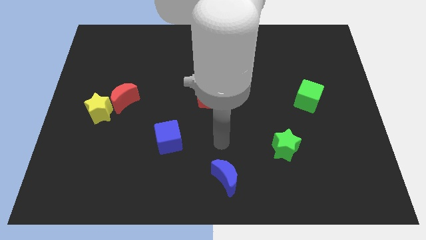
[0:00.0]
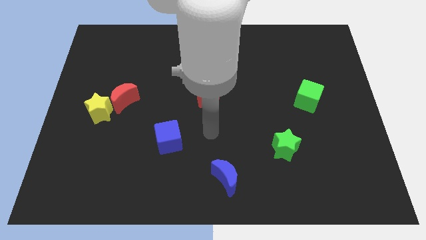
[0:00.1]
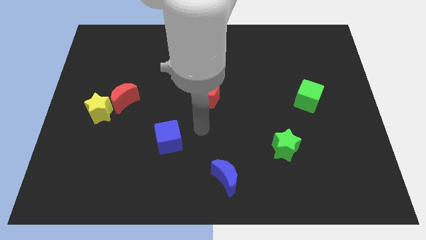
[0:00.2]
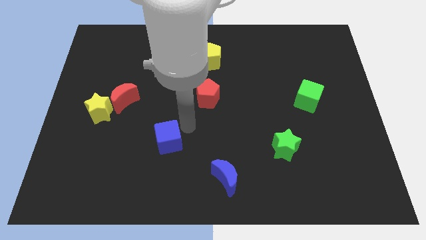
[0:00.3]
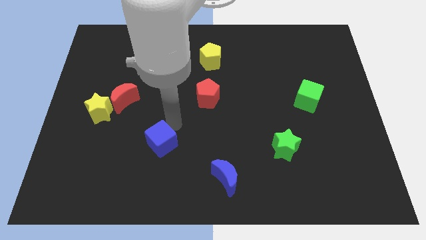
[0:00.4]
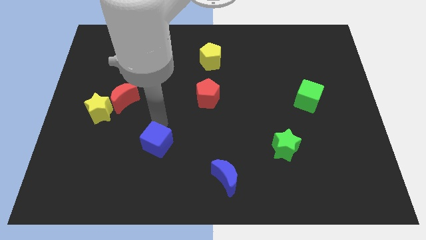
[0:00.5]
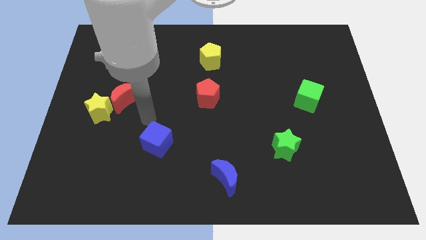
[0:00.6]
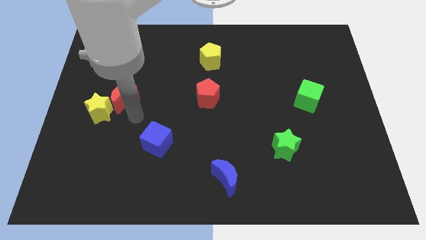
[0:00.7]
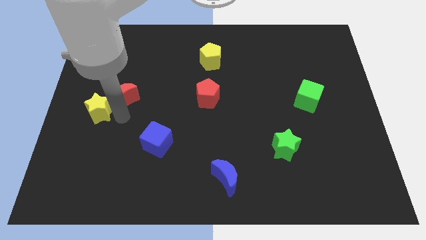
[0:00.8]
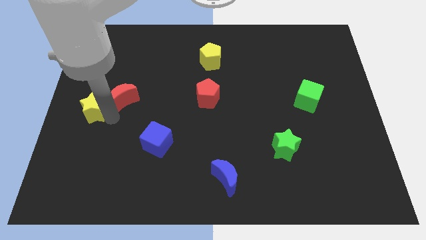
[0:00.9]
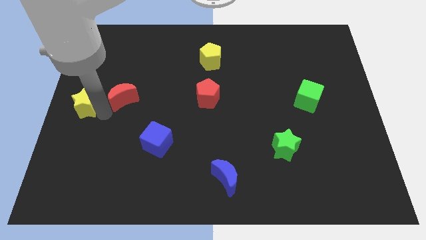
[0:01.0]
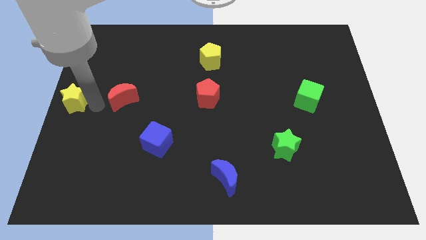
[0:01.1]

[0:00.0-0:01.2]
separate the red moon from the yellow star

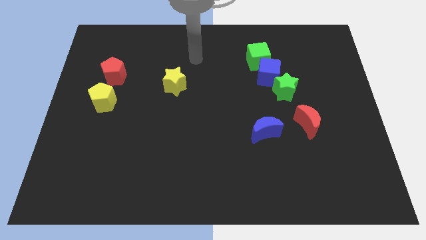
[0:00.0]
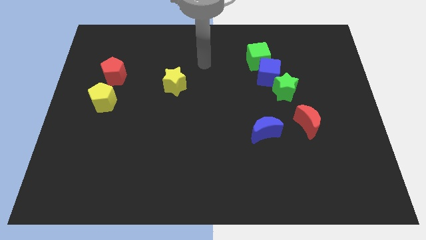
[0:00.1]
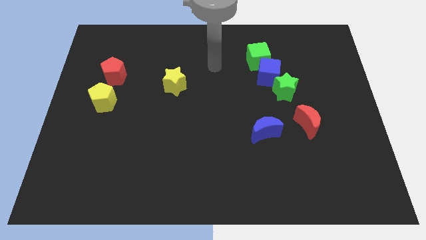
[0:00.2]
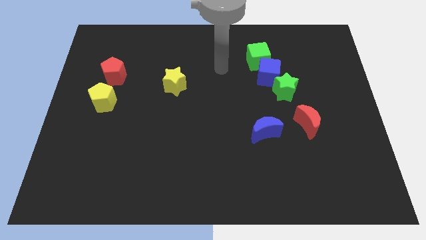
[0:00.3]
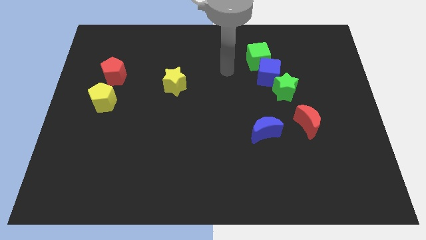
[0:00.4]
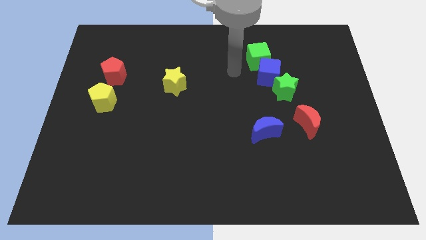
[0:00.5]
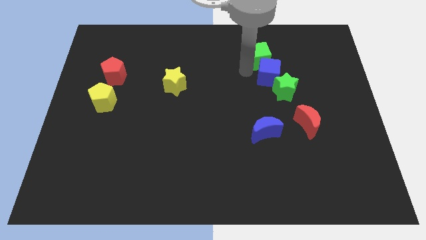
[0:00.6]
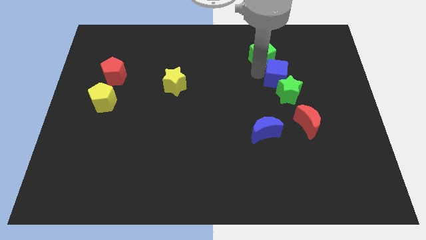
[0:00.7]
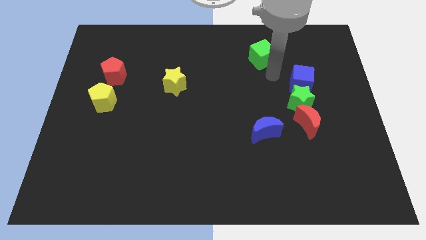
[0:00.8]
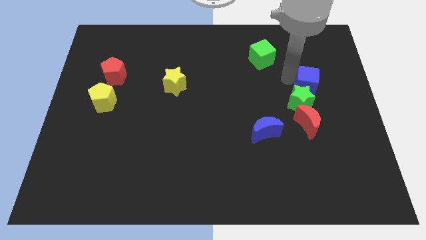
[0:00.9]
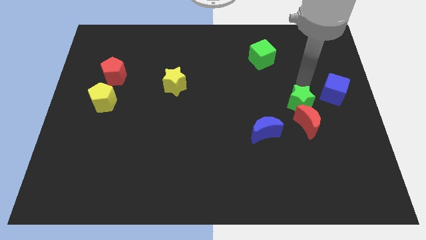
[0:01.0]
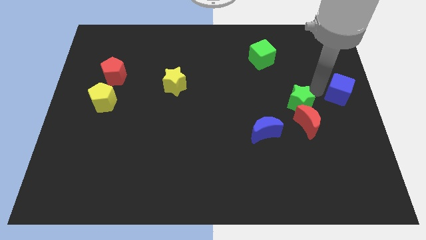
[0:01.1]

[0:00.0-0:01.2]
move the green star away from the blue cube

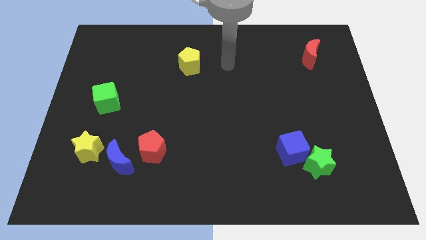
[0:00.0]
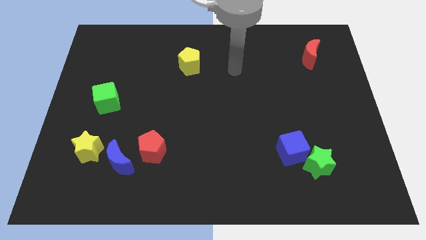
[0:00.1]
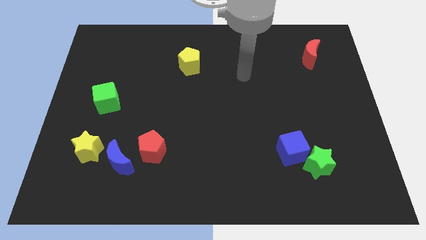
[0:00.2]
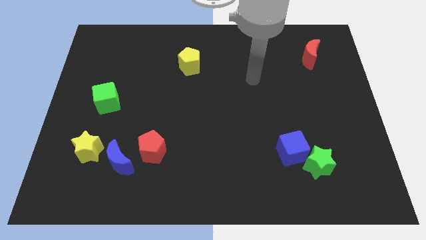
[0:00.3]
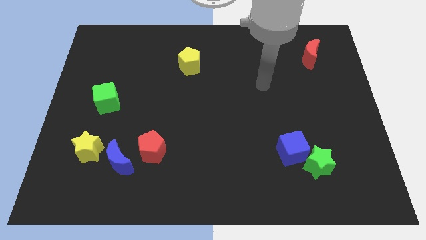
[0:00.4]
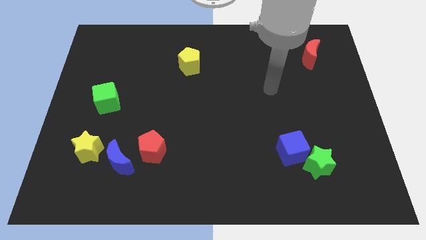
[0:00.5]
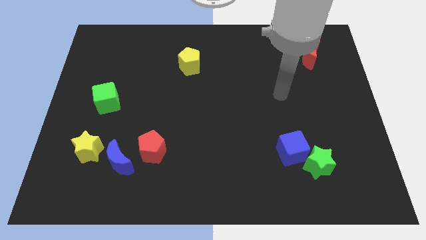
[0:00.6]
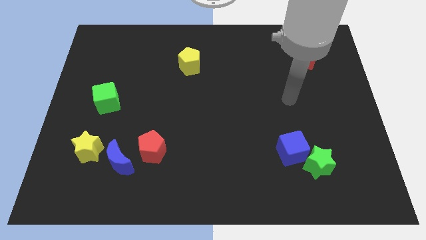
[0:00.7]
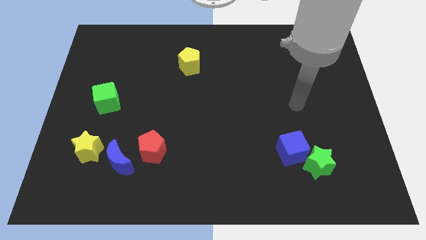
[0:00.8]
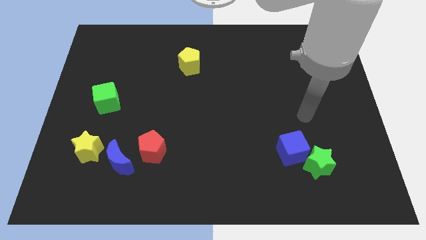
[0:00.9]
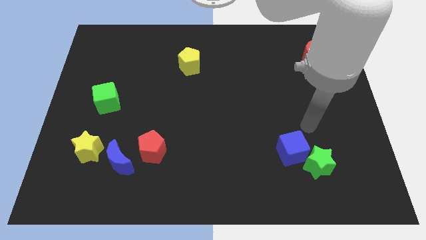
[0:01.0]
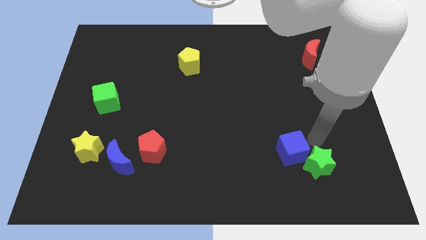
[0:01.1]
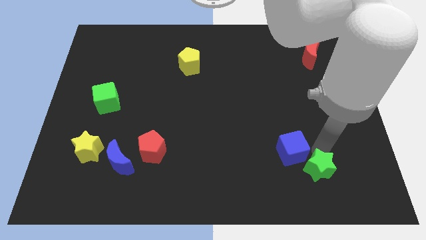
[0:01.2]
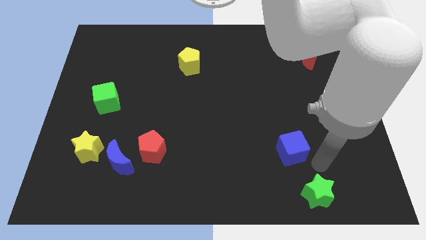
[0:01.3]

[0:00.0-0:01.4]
pull the blue cube apart from the green star

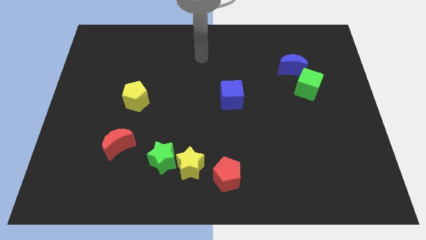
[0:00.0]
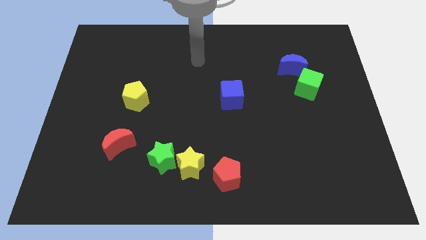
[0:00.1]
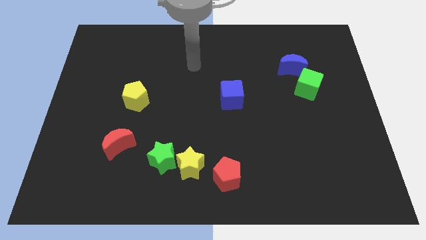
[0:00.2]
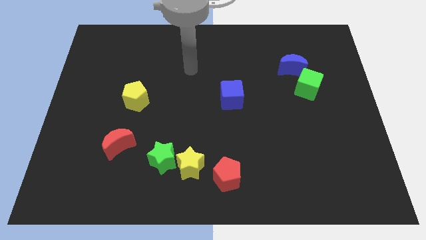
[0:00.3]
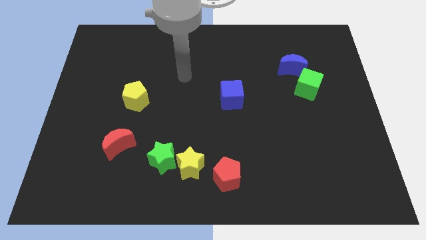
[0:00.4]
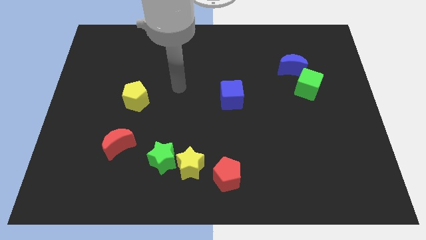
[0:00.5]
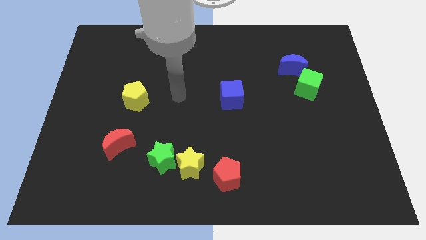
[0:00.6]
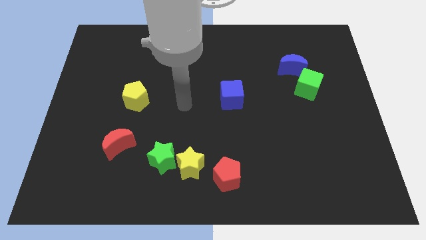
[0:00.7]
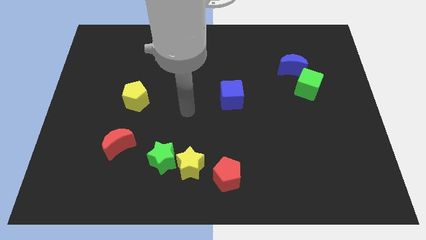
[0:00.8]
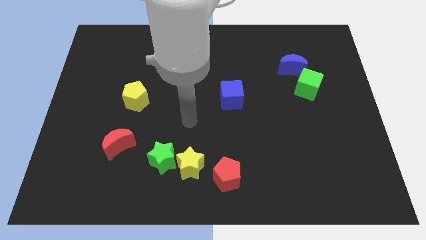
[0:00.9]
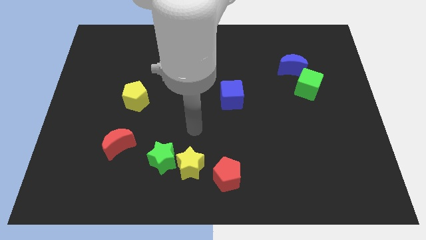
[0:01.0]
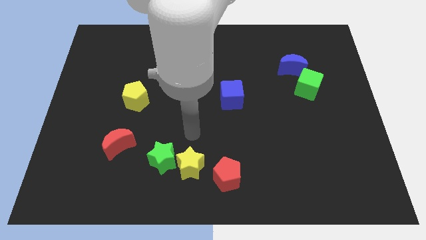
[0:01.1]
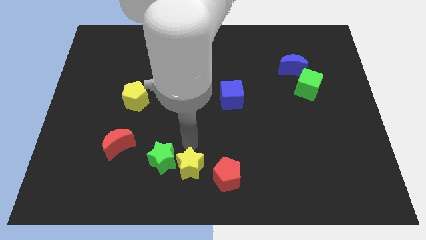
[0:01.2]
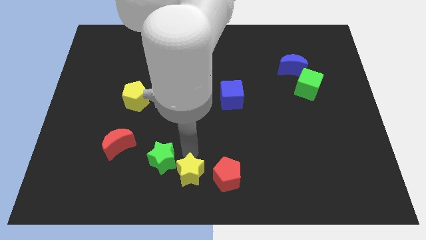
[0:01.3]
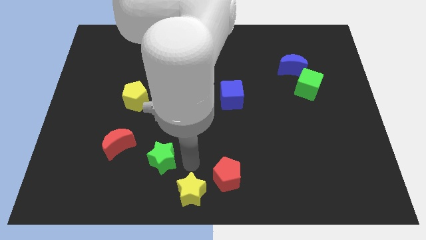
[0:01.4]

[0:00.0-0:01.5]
move the green star away from the yellow star

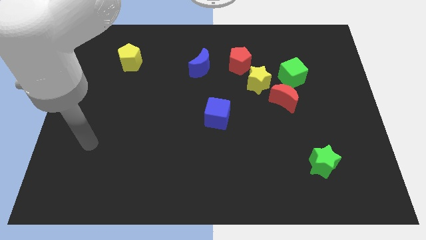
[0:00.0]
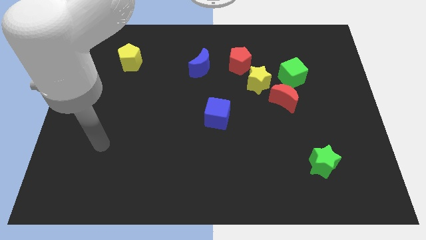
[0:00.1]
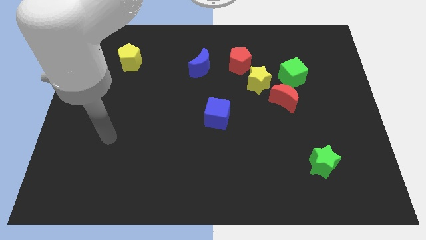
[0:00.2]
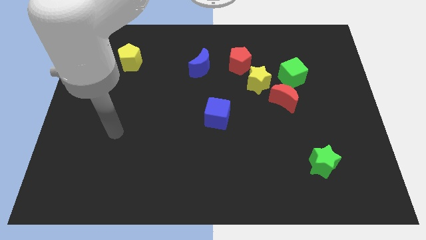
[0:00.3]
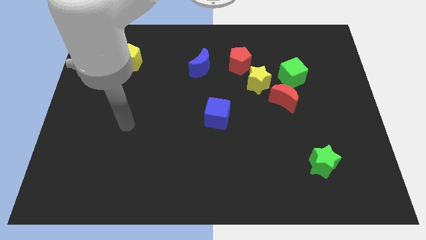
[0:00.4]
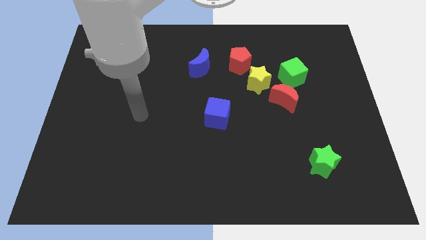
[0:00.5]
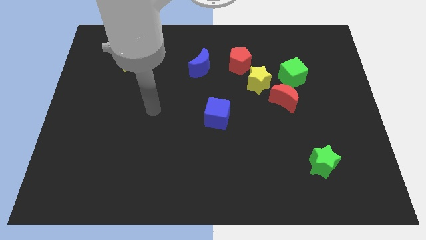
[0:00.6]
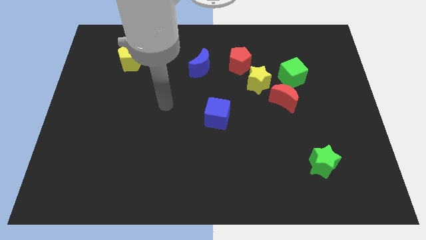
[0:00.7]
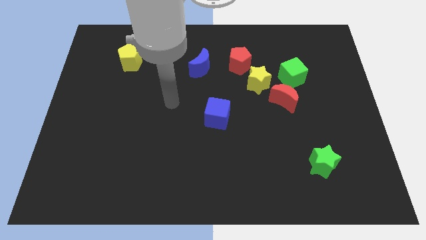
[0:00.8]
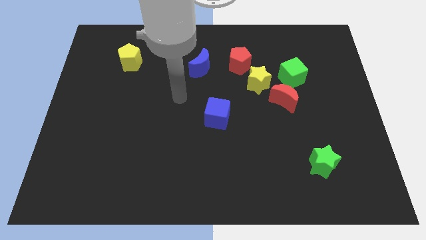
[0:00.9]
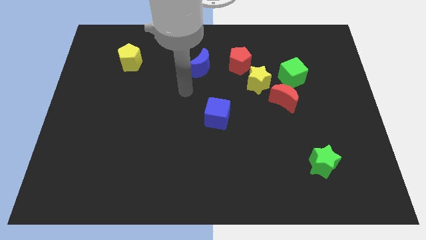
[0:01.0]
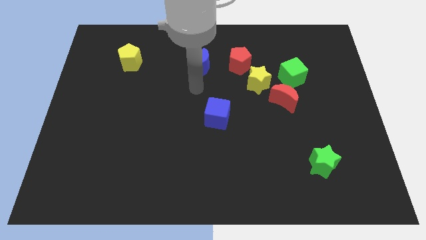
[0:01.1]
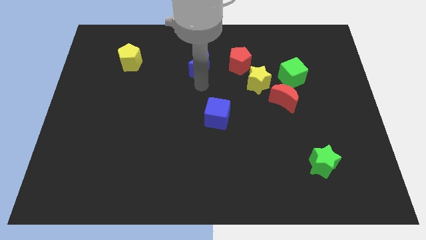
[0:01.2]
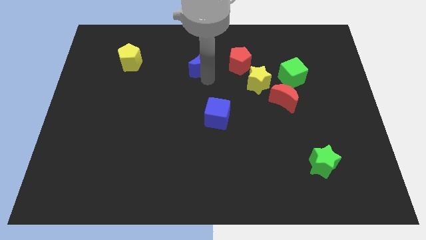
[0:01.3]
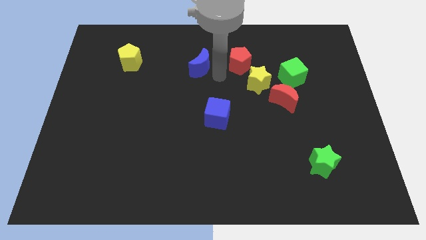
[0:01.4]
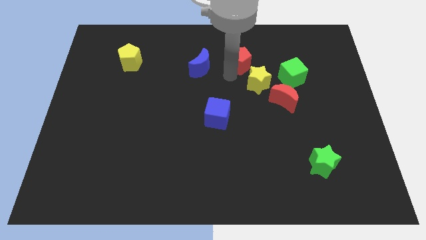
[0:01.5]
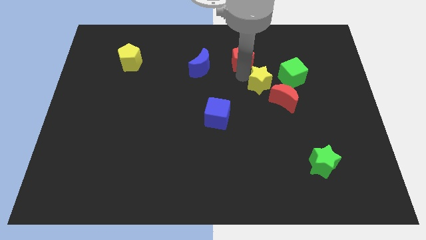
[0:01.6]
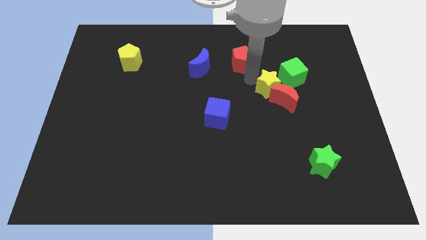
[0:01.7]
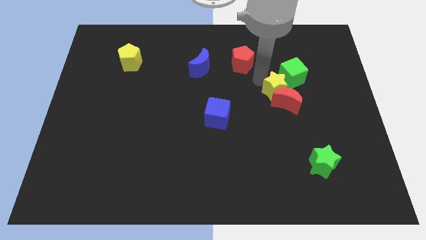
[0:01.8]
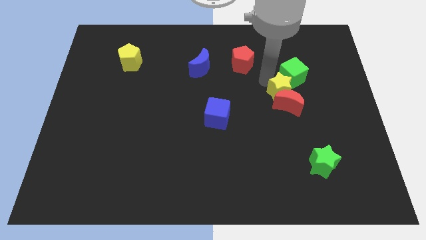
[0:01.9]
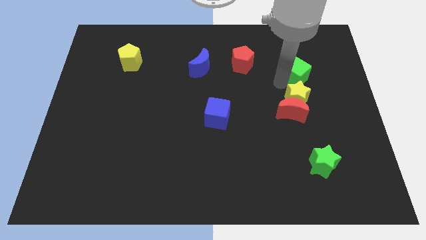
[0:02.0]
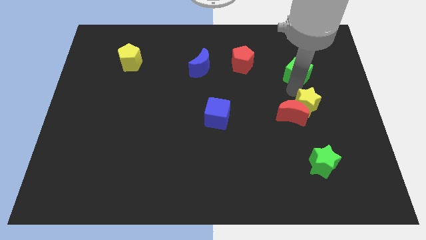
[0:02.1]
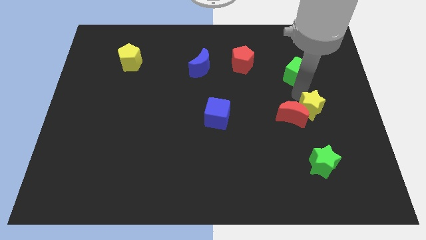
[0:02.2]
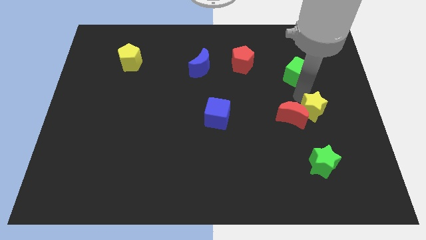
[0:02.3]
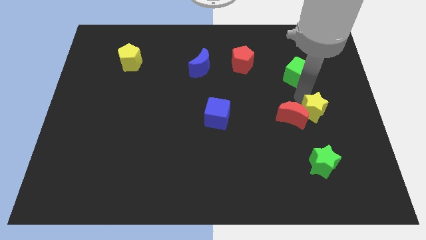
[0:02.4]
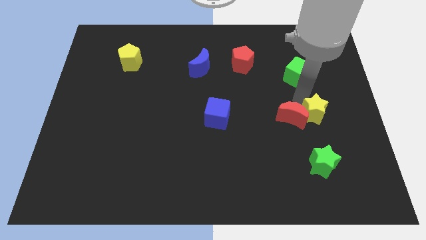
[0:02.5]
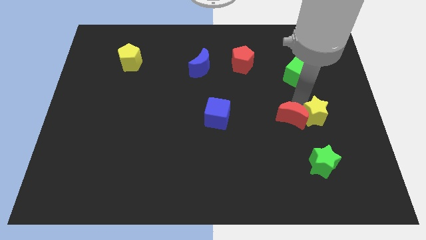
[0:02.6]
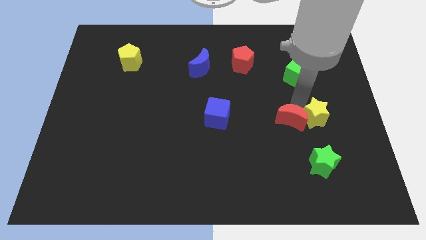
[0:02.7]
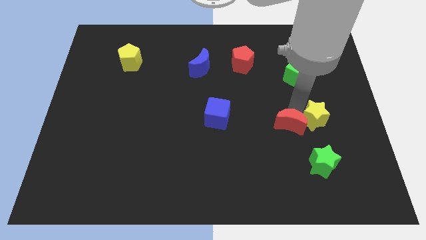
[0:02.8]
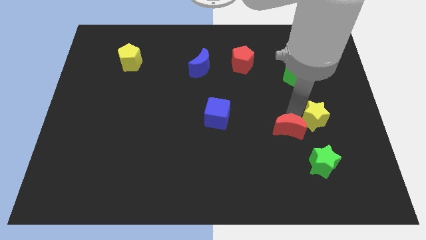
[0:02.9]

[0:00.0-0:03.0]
move the red moon away from the green cube and yellow star

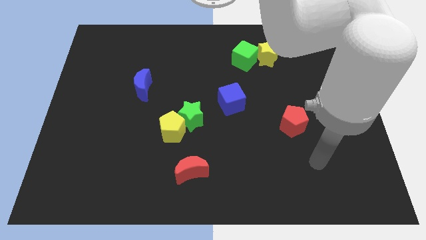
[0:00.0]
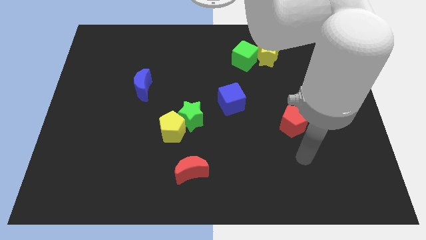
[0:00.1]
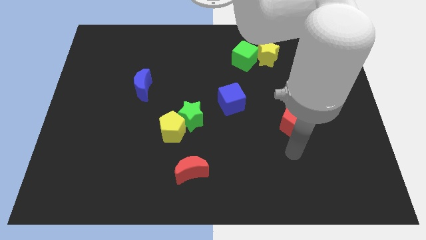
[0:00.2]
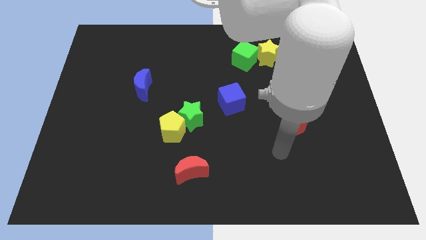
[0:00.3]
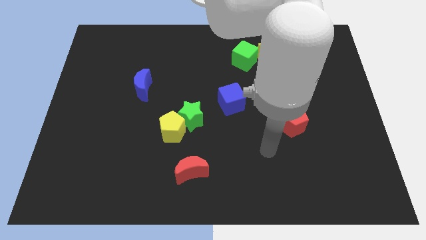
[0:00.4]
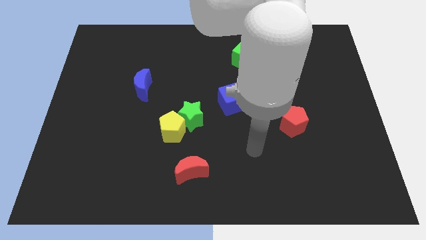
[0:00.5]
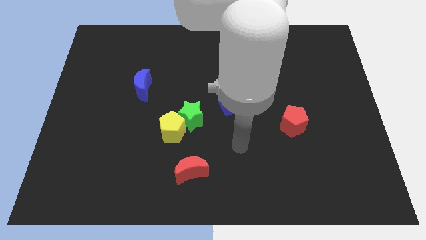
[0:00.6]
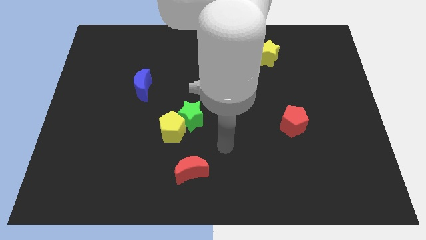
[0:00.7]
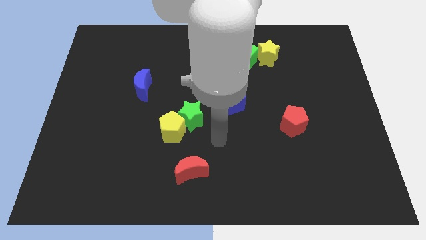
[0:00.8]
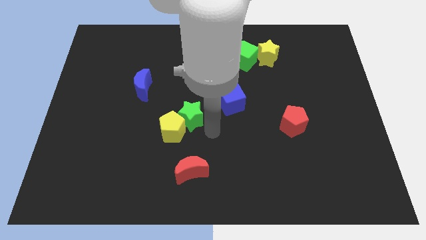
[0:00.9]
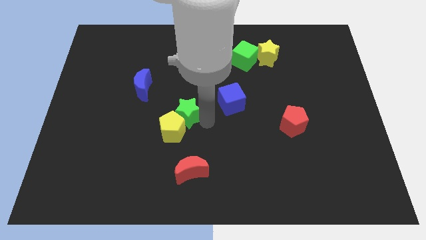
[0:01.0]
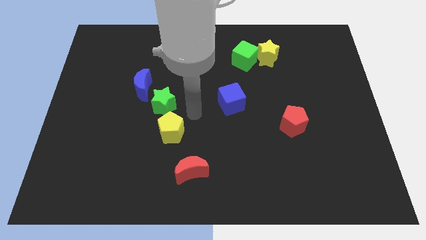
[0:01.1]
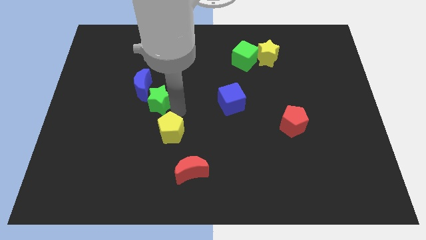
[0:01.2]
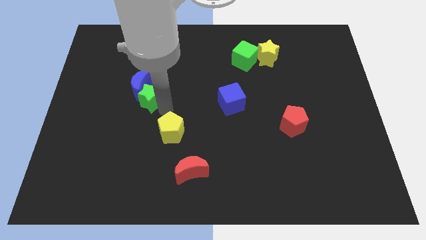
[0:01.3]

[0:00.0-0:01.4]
pull the yellow pentagon apart from the green star
